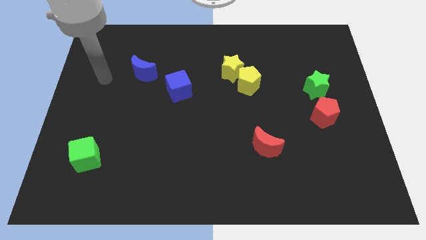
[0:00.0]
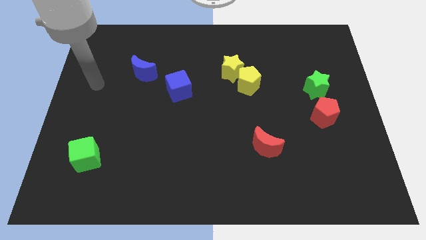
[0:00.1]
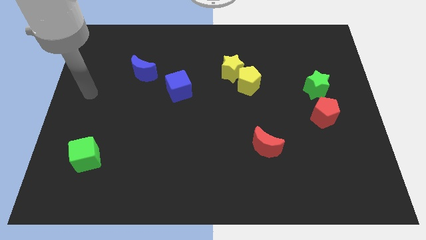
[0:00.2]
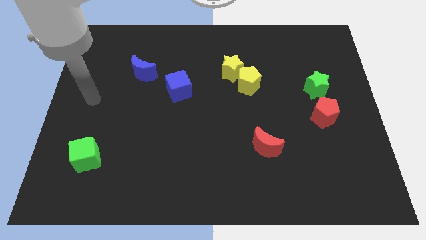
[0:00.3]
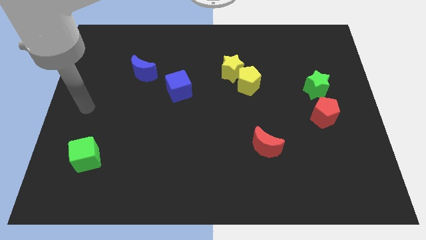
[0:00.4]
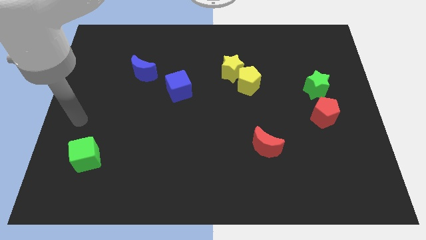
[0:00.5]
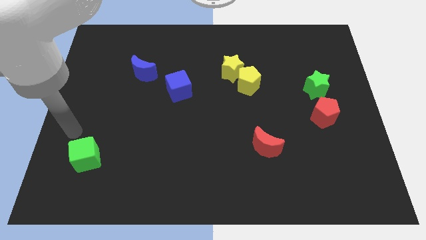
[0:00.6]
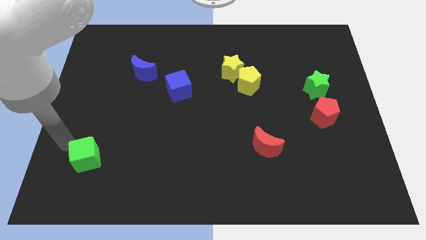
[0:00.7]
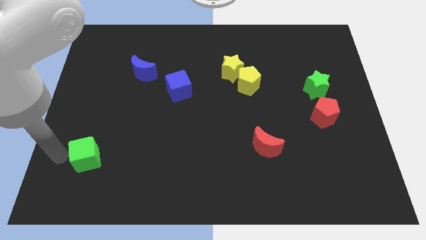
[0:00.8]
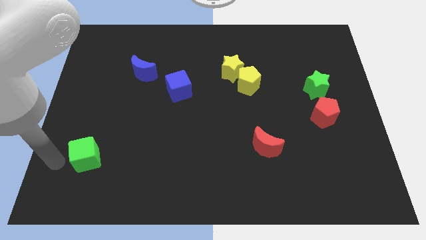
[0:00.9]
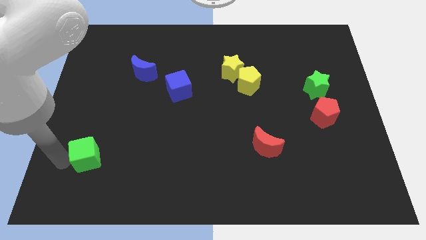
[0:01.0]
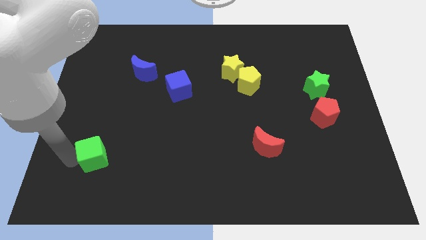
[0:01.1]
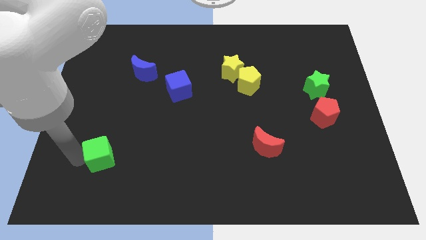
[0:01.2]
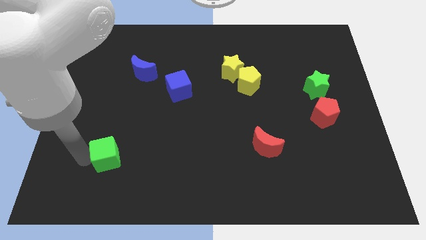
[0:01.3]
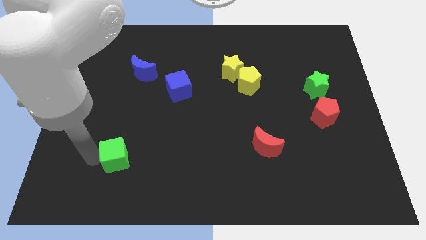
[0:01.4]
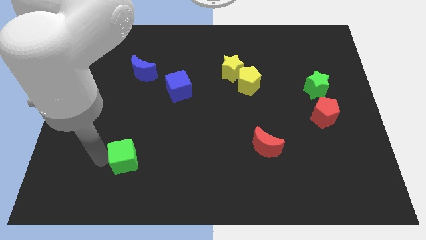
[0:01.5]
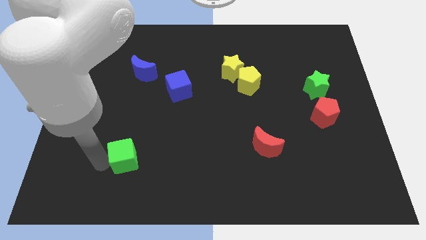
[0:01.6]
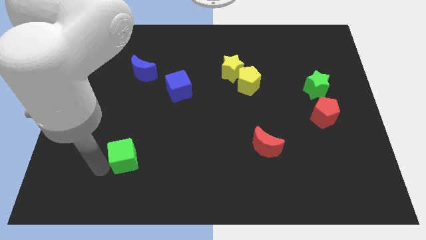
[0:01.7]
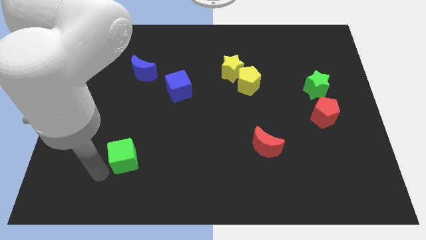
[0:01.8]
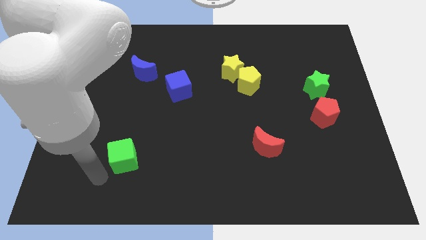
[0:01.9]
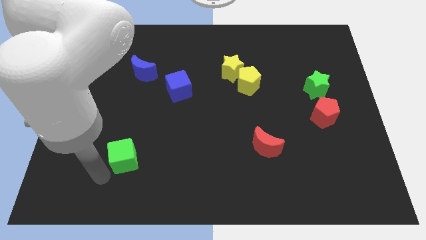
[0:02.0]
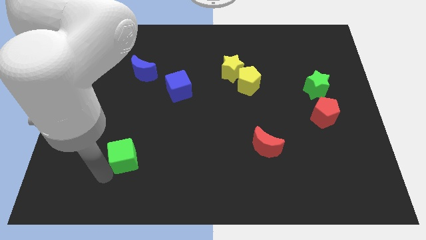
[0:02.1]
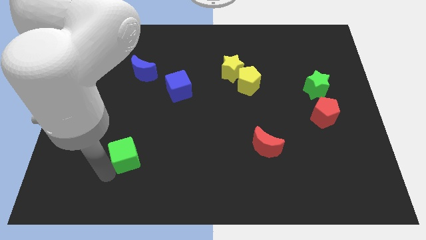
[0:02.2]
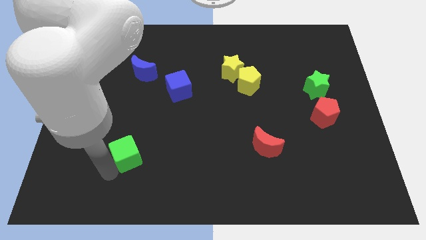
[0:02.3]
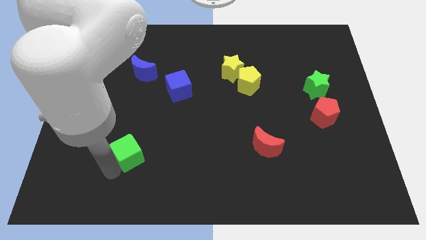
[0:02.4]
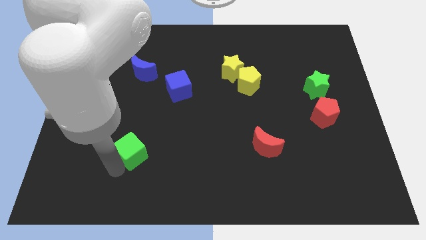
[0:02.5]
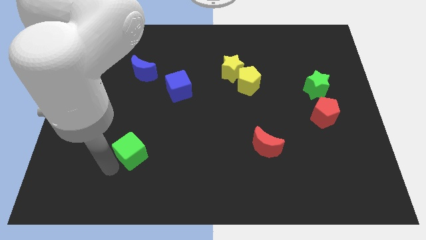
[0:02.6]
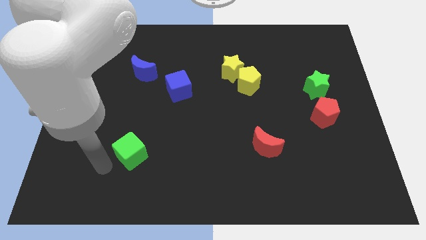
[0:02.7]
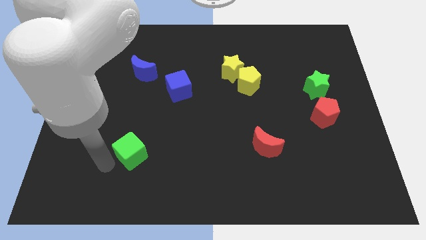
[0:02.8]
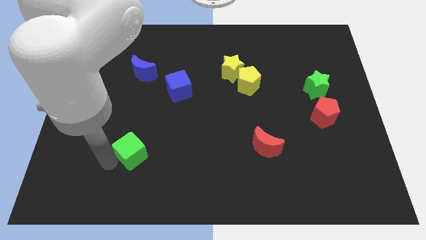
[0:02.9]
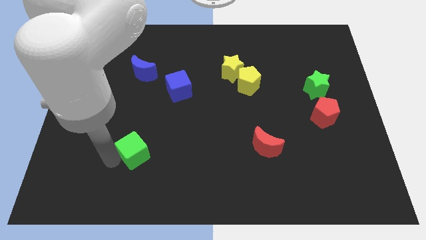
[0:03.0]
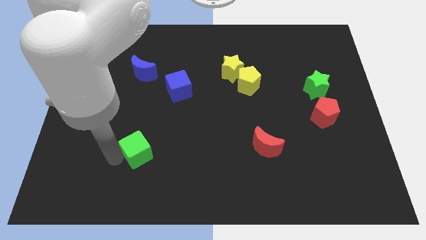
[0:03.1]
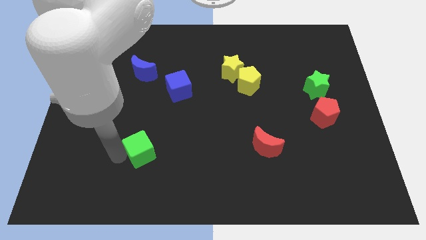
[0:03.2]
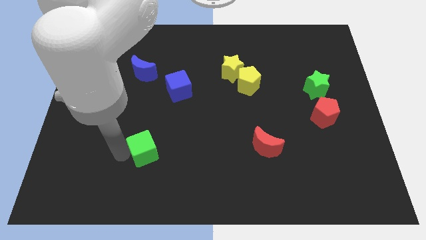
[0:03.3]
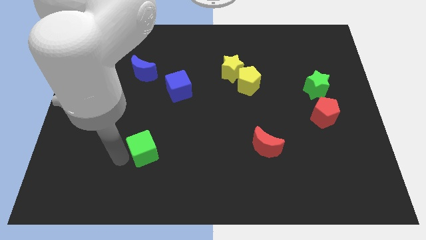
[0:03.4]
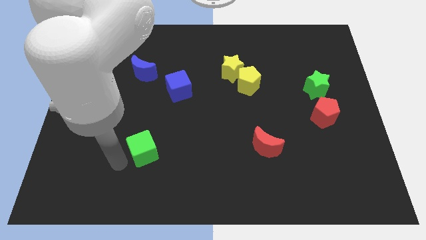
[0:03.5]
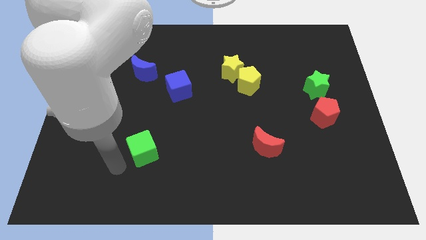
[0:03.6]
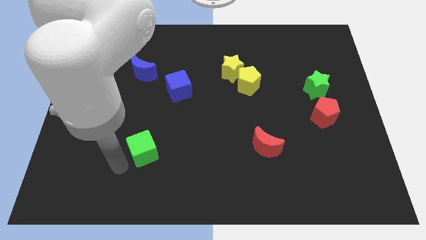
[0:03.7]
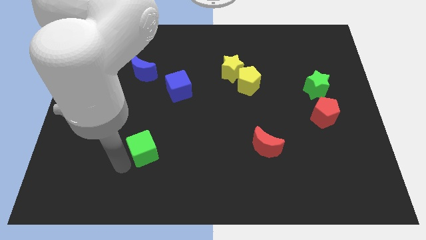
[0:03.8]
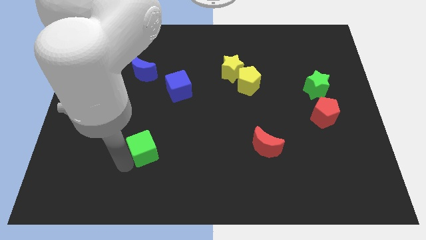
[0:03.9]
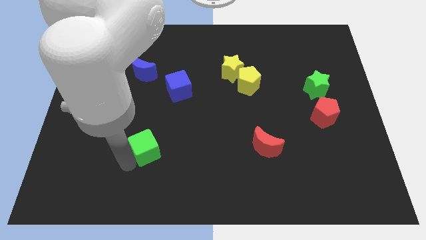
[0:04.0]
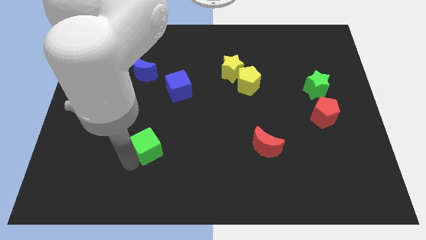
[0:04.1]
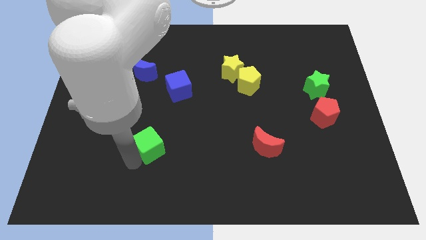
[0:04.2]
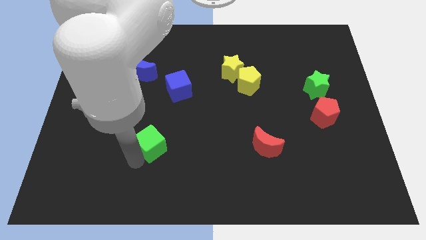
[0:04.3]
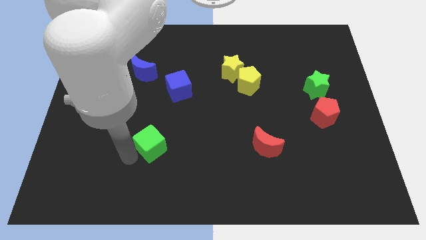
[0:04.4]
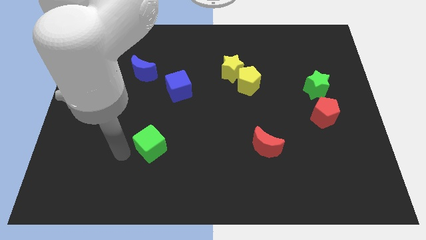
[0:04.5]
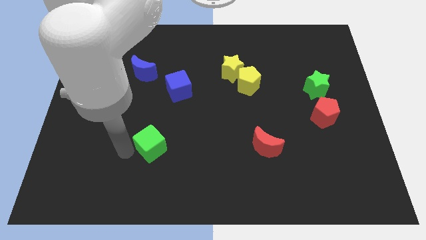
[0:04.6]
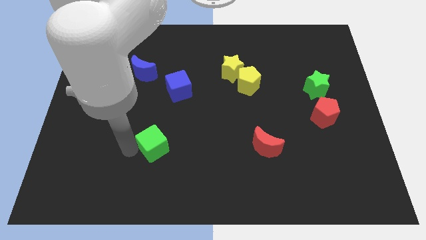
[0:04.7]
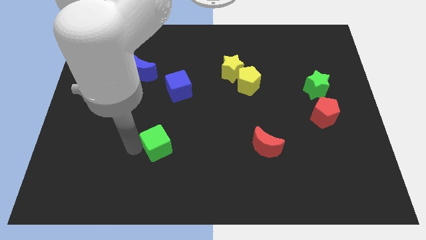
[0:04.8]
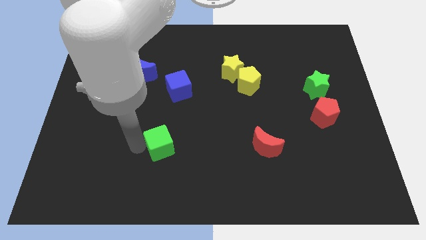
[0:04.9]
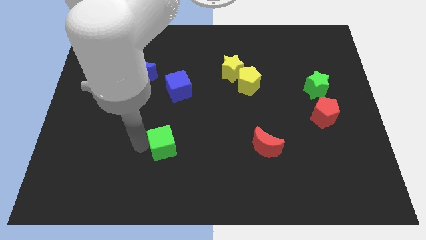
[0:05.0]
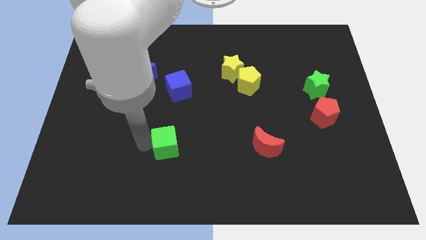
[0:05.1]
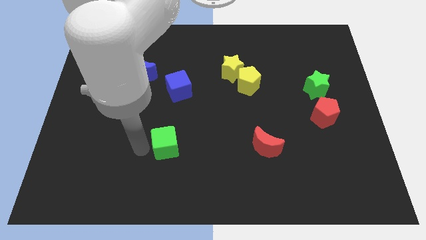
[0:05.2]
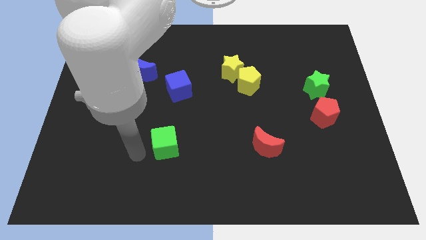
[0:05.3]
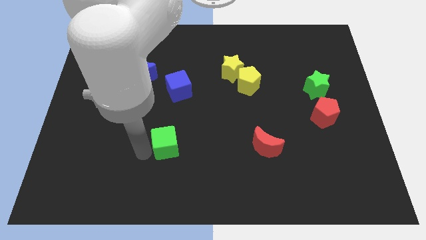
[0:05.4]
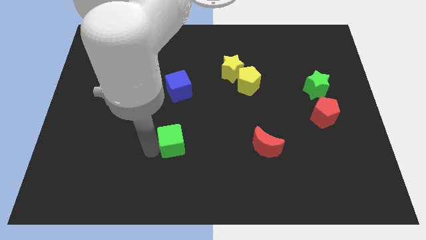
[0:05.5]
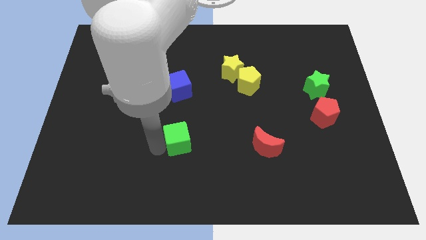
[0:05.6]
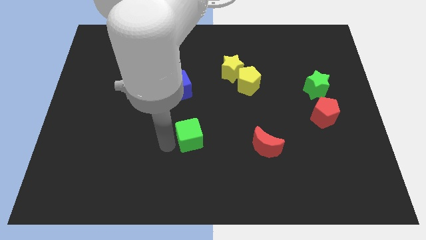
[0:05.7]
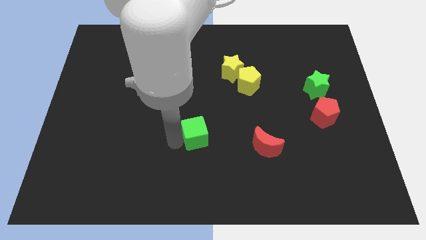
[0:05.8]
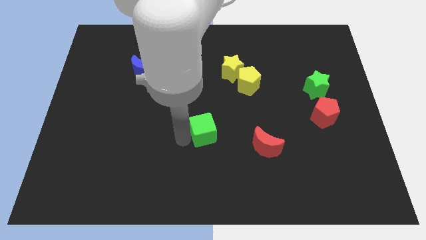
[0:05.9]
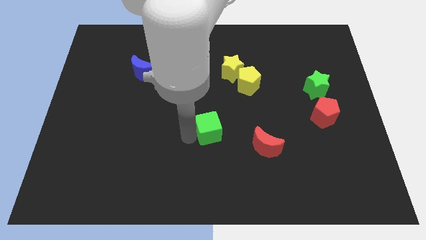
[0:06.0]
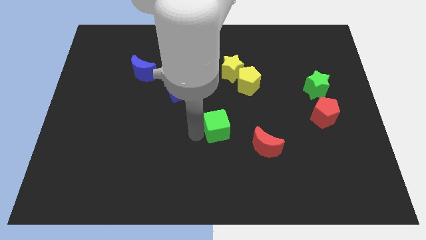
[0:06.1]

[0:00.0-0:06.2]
slide the green cube to the top left of the red moon

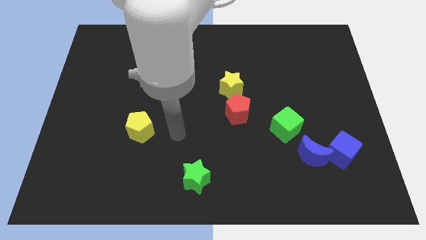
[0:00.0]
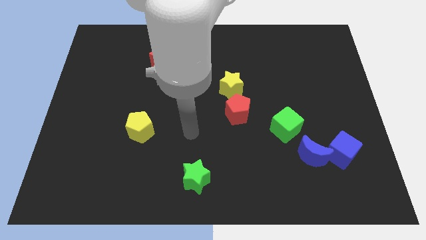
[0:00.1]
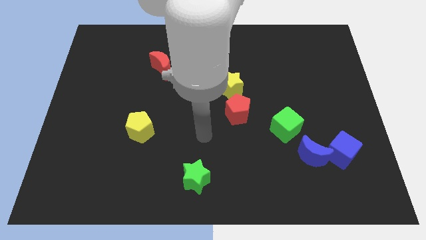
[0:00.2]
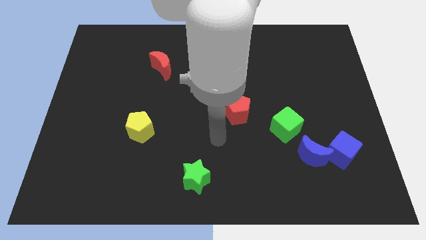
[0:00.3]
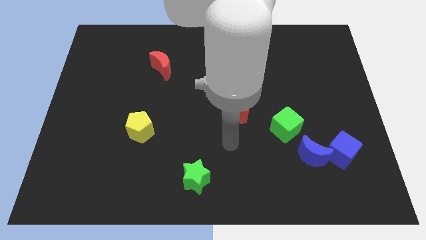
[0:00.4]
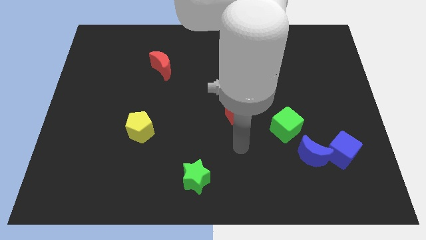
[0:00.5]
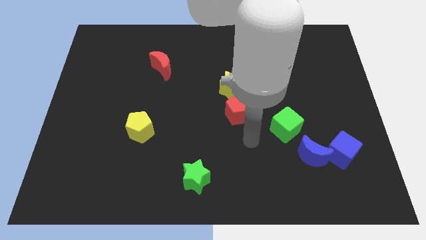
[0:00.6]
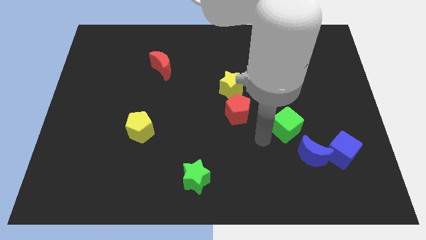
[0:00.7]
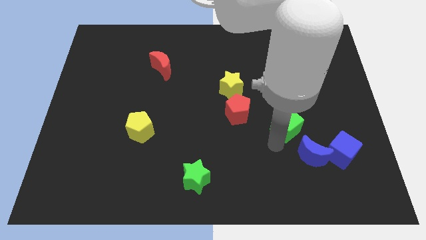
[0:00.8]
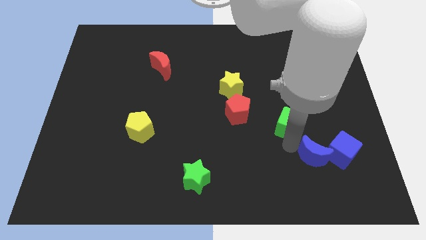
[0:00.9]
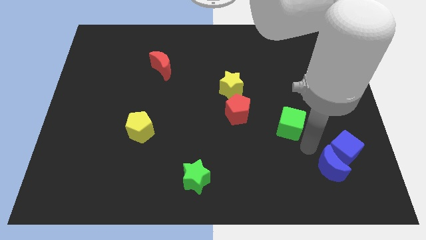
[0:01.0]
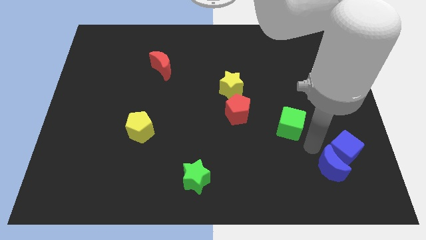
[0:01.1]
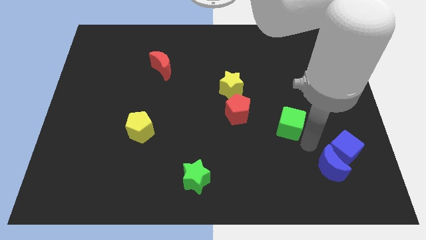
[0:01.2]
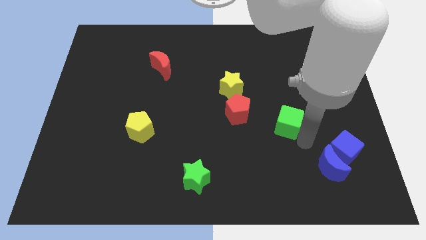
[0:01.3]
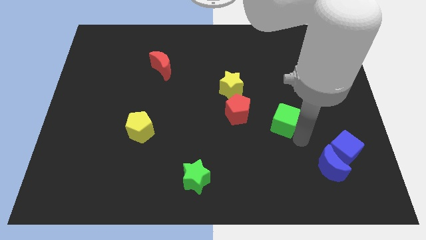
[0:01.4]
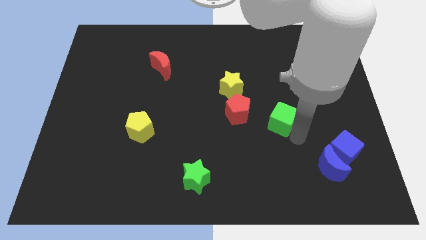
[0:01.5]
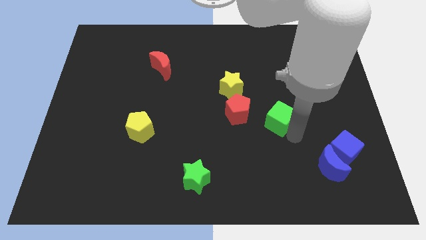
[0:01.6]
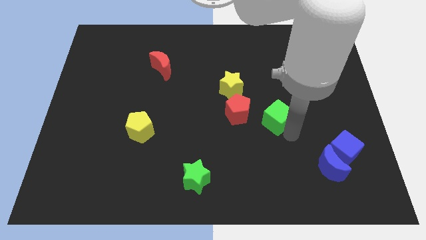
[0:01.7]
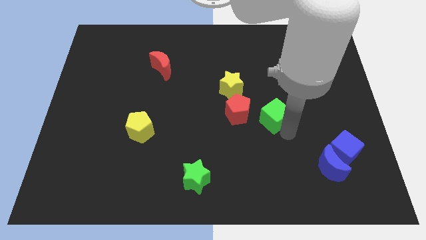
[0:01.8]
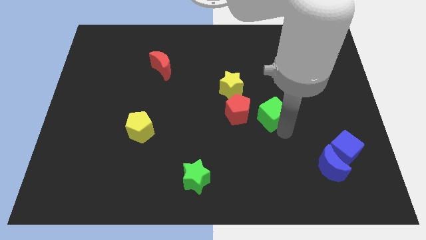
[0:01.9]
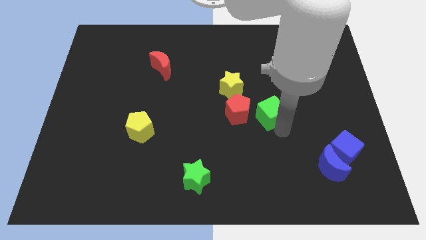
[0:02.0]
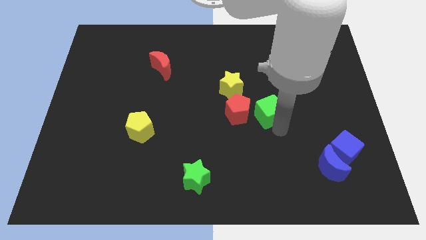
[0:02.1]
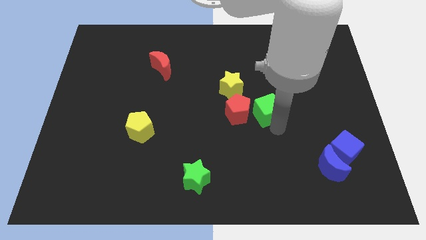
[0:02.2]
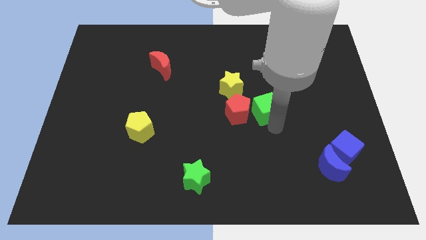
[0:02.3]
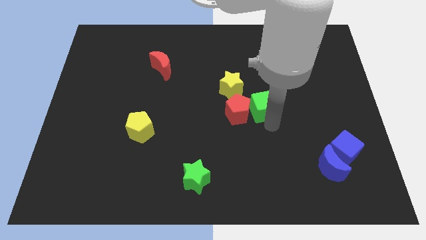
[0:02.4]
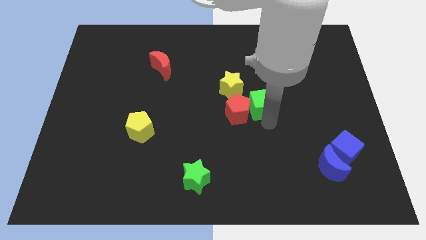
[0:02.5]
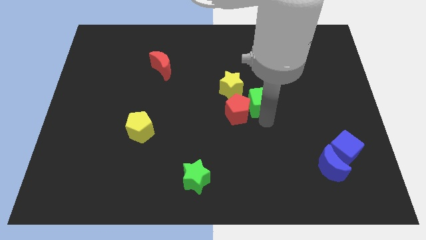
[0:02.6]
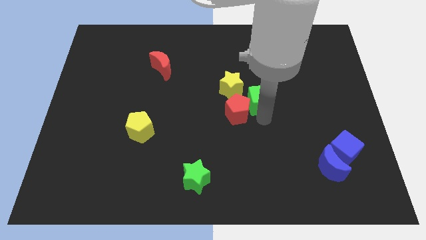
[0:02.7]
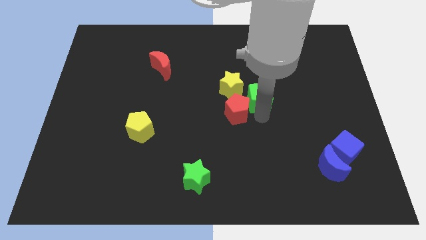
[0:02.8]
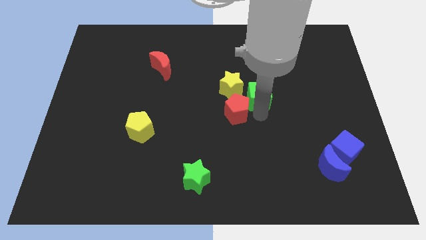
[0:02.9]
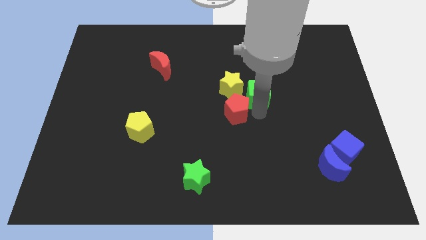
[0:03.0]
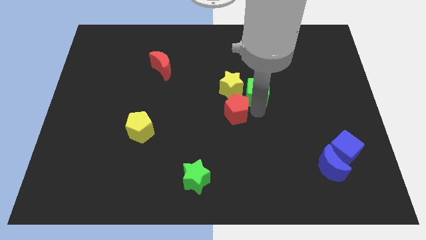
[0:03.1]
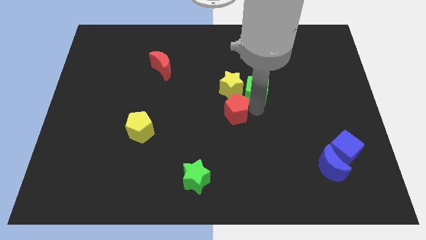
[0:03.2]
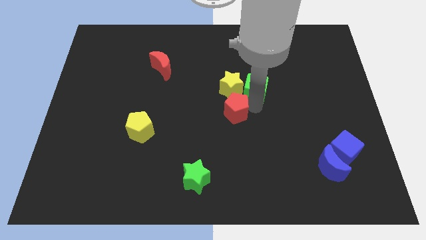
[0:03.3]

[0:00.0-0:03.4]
put the green cube to the top right of the yellow star
